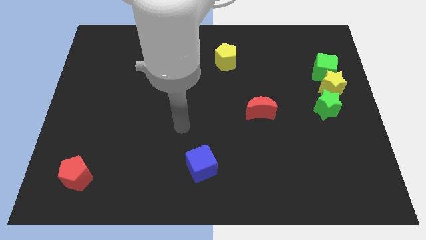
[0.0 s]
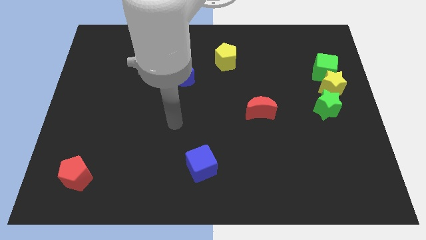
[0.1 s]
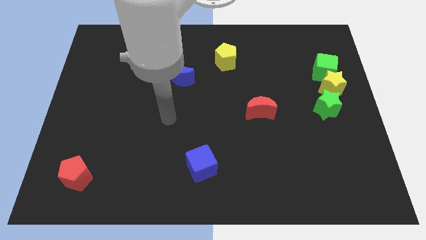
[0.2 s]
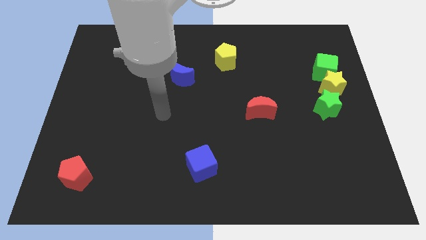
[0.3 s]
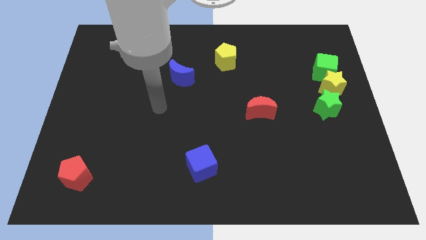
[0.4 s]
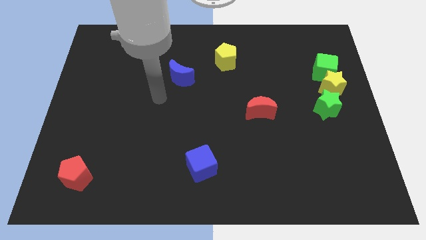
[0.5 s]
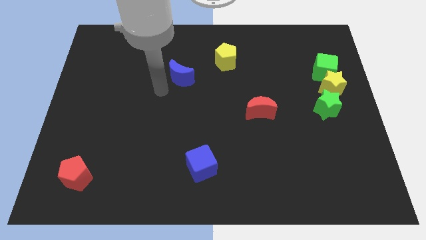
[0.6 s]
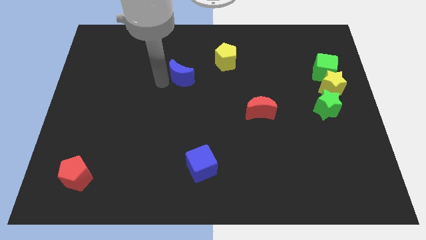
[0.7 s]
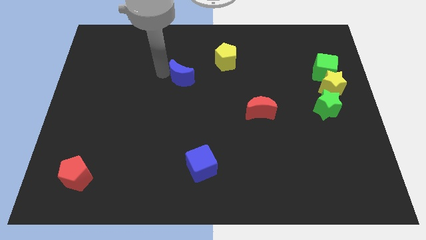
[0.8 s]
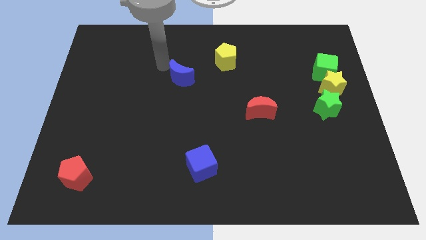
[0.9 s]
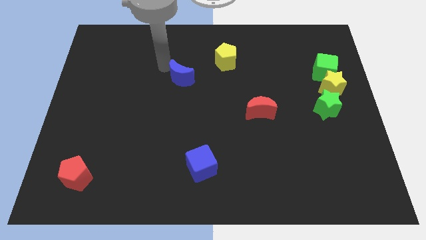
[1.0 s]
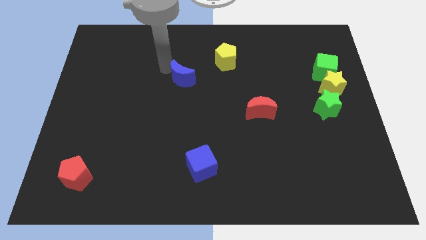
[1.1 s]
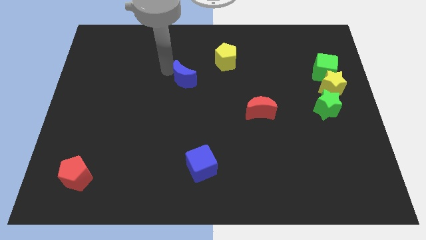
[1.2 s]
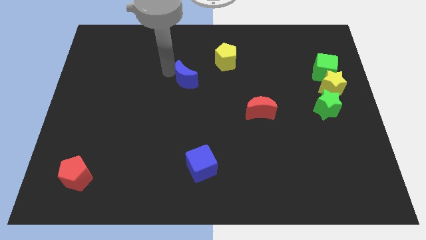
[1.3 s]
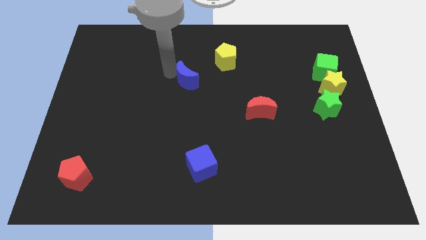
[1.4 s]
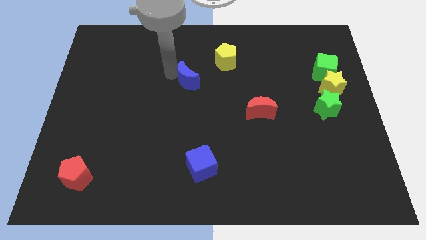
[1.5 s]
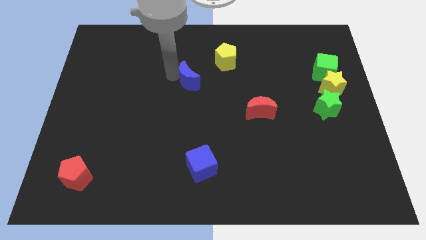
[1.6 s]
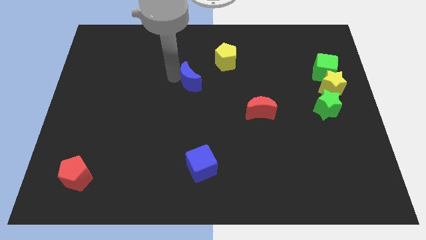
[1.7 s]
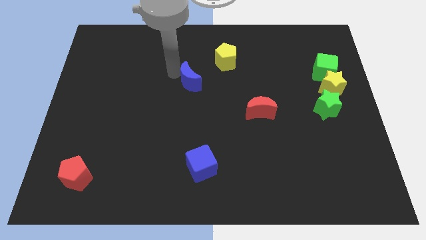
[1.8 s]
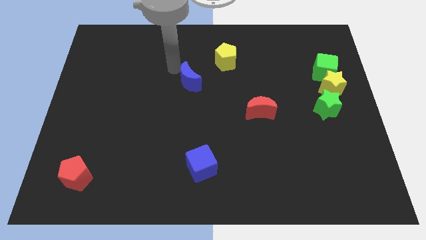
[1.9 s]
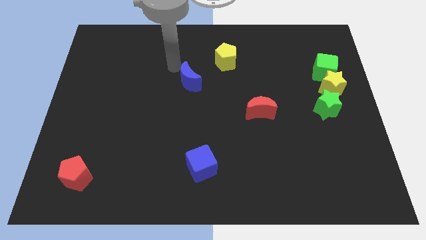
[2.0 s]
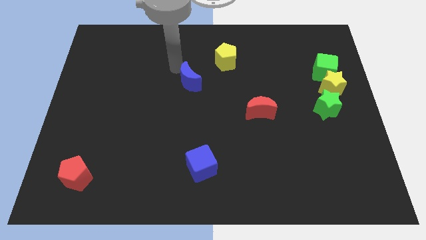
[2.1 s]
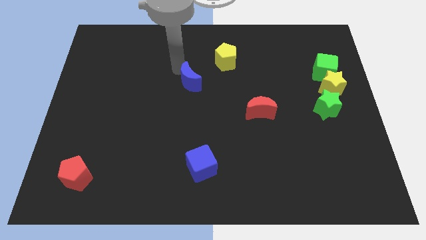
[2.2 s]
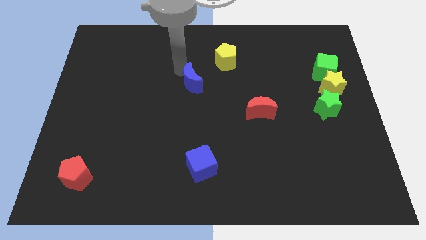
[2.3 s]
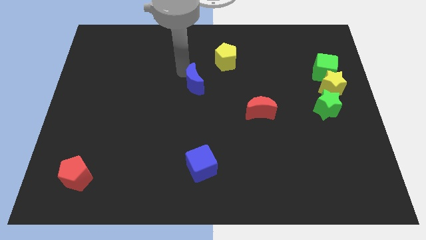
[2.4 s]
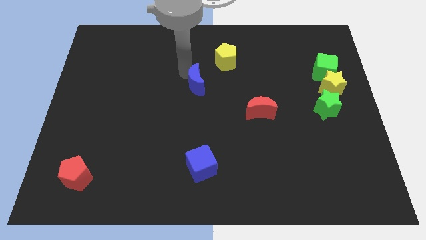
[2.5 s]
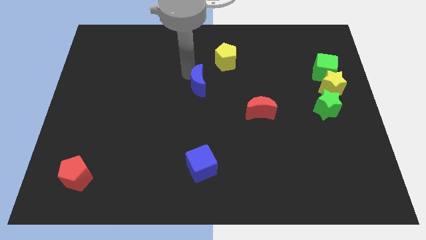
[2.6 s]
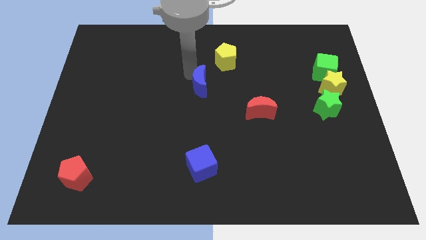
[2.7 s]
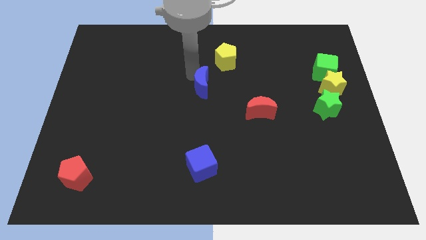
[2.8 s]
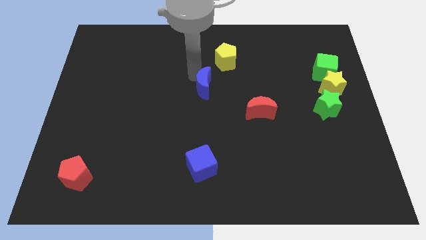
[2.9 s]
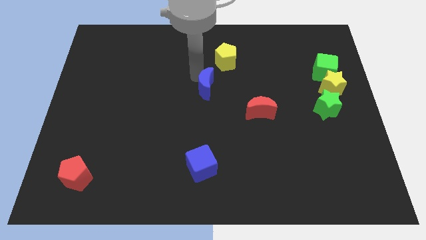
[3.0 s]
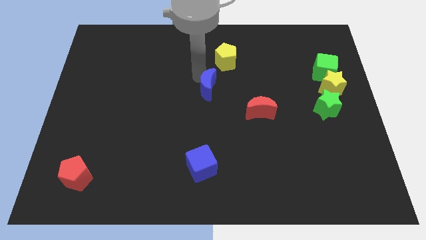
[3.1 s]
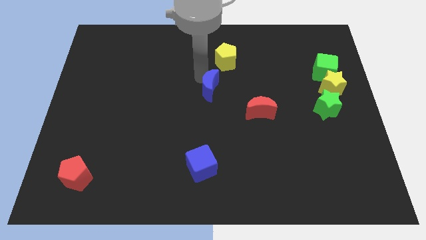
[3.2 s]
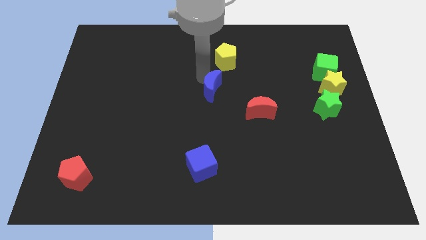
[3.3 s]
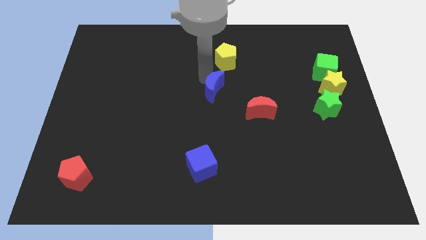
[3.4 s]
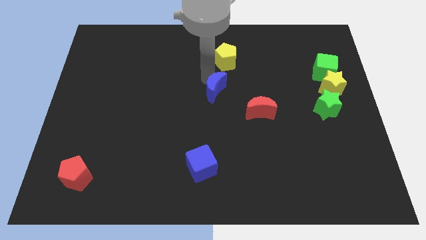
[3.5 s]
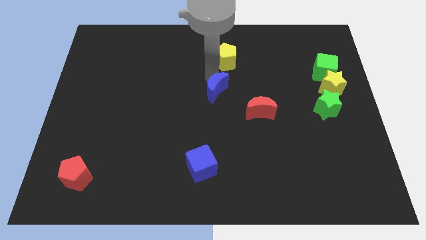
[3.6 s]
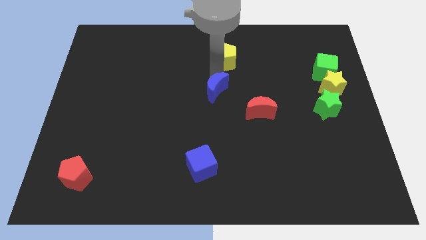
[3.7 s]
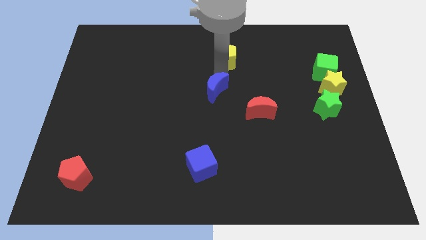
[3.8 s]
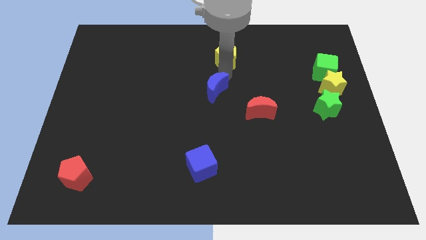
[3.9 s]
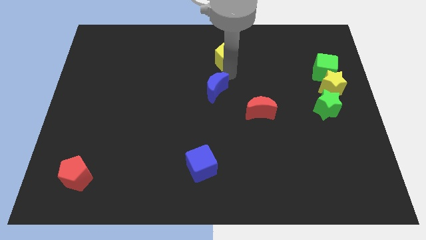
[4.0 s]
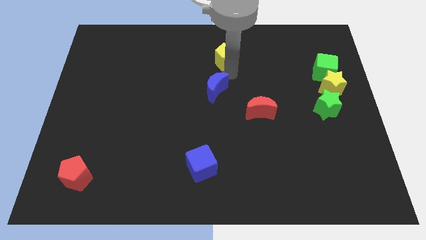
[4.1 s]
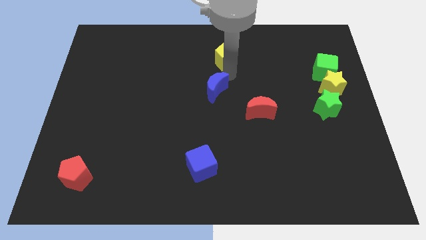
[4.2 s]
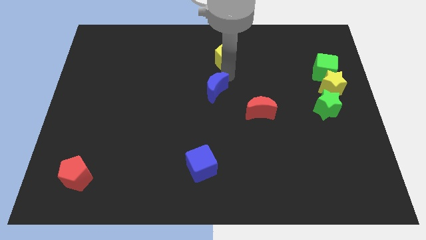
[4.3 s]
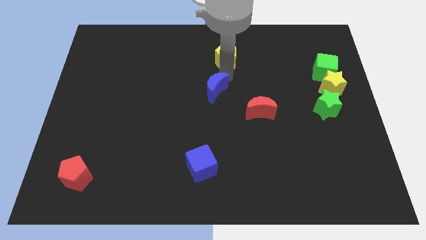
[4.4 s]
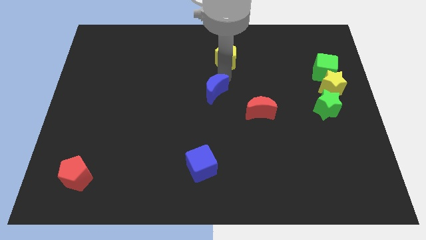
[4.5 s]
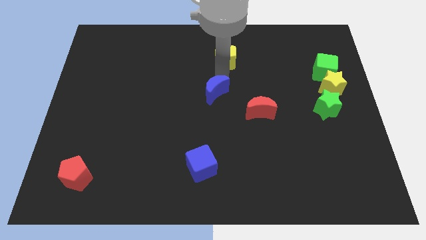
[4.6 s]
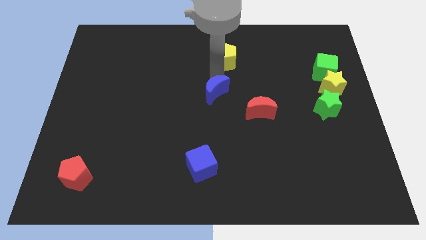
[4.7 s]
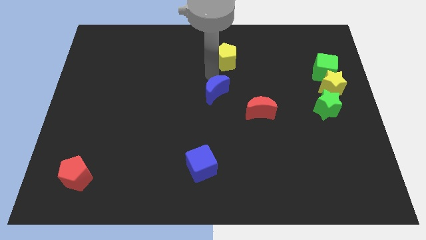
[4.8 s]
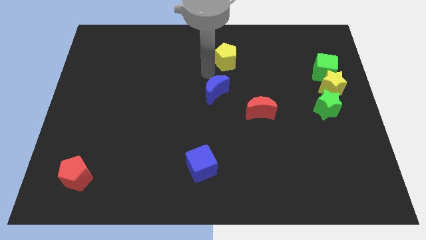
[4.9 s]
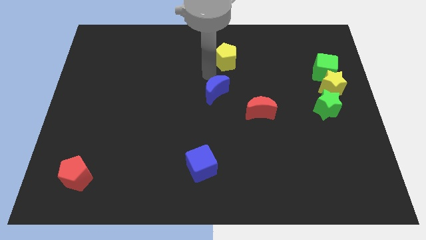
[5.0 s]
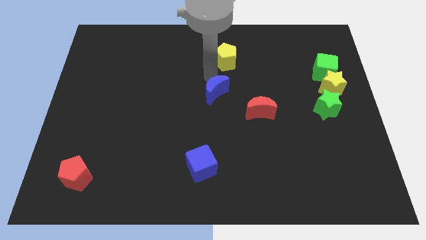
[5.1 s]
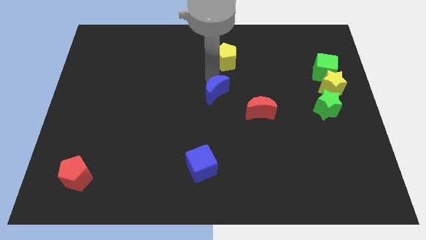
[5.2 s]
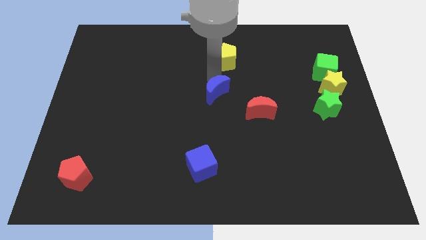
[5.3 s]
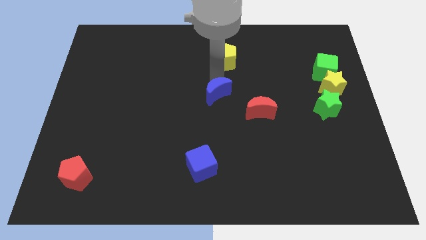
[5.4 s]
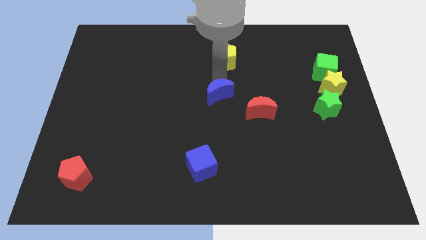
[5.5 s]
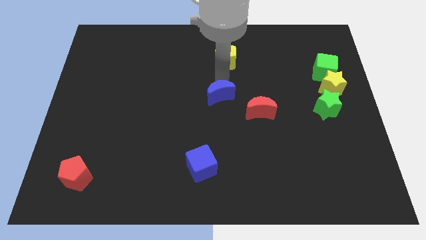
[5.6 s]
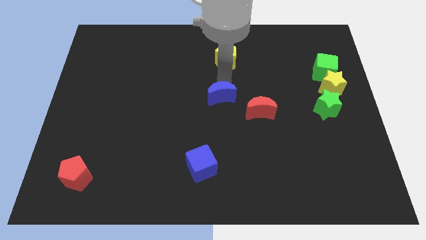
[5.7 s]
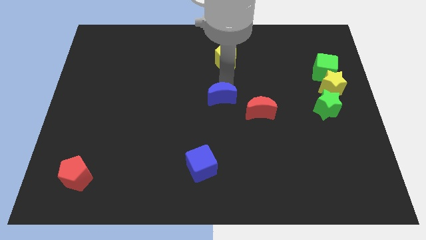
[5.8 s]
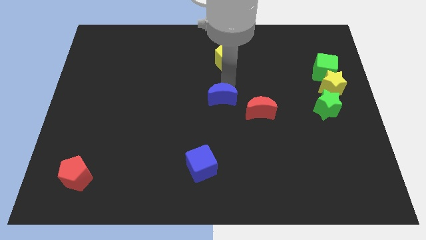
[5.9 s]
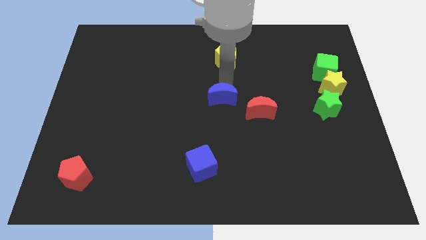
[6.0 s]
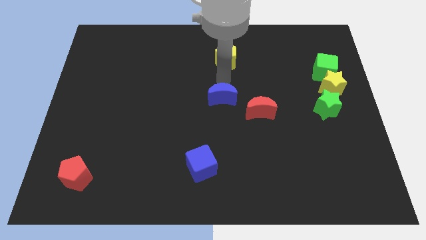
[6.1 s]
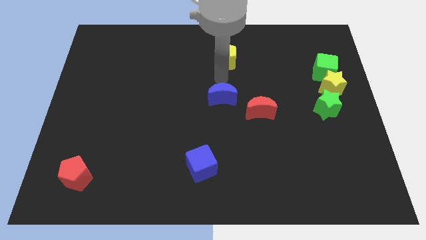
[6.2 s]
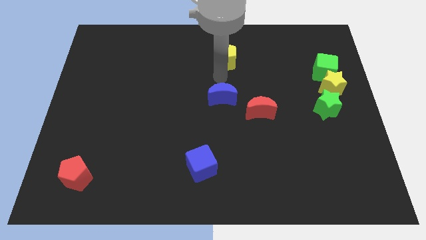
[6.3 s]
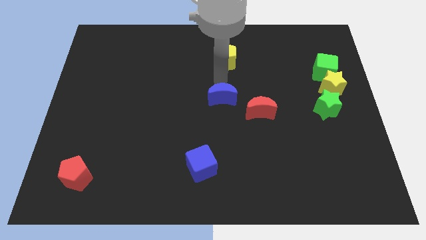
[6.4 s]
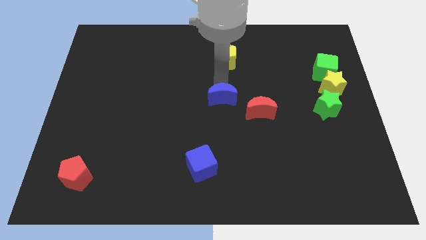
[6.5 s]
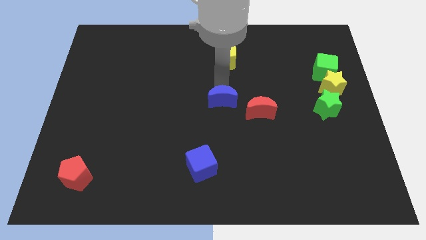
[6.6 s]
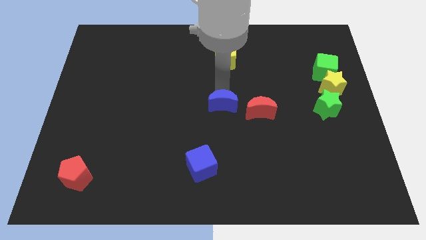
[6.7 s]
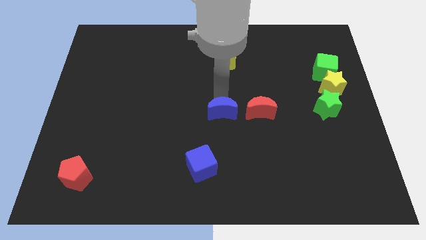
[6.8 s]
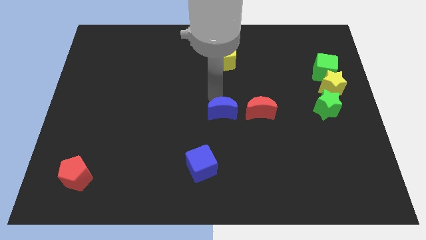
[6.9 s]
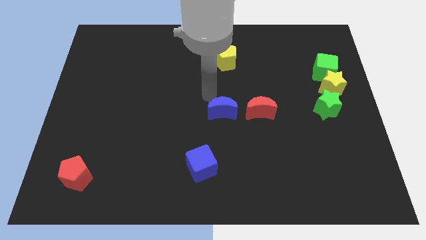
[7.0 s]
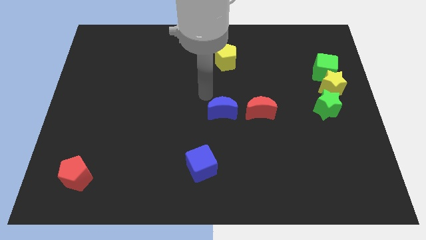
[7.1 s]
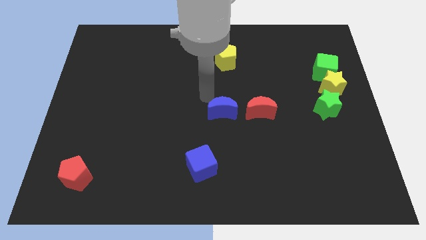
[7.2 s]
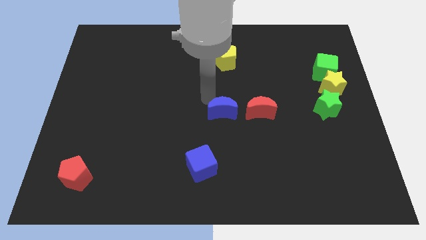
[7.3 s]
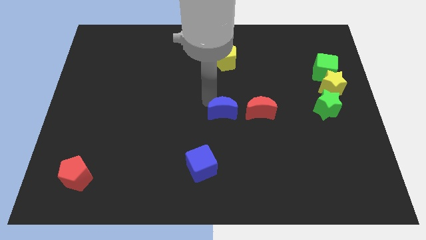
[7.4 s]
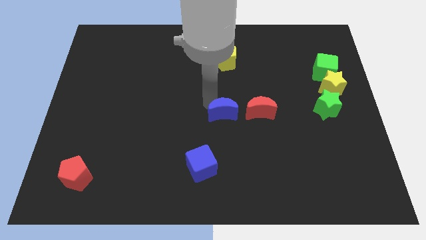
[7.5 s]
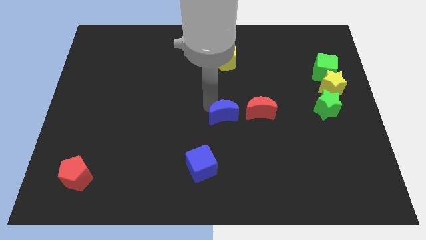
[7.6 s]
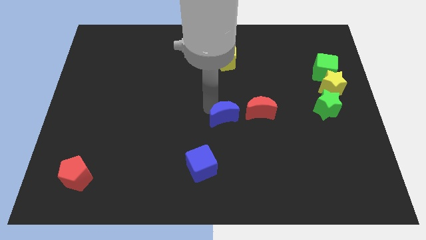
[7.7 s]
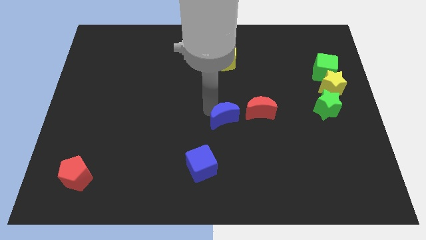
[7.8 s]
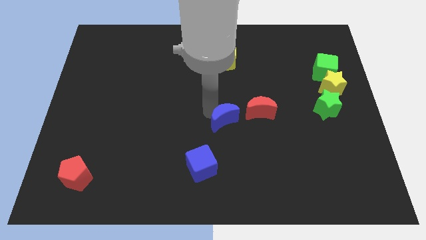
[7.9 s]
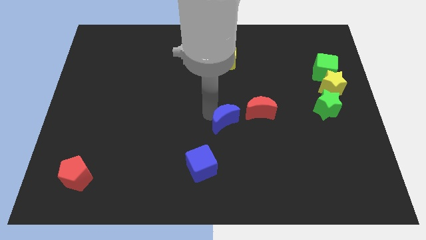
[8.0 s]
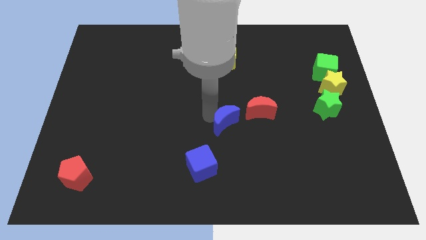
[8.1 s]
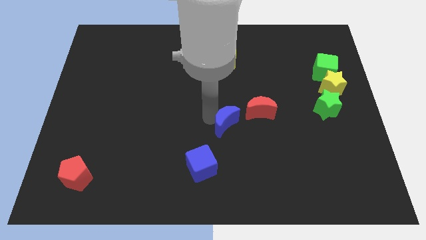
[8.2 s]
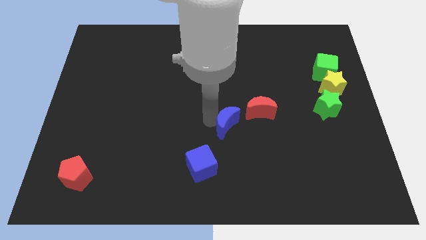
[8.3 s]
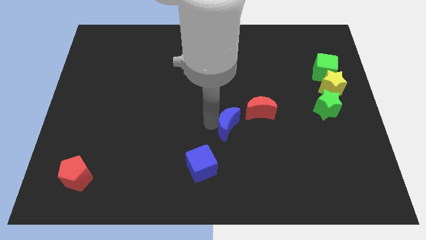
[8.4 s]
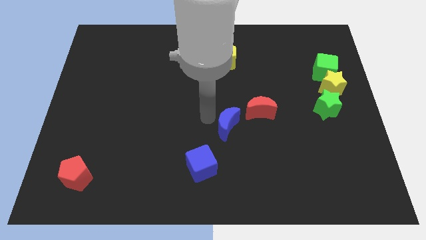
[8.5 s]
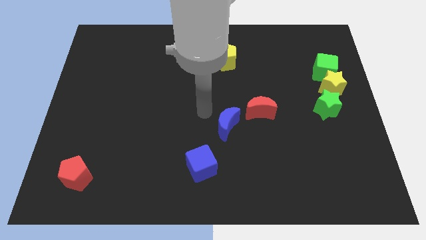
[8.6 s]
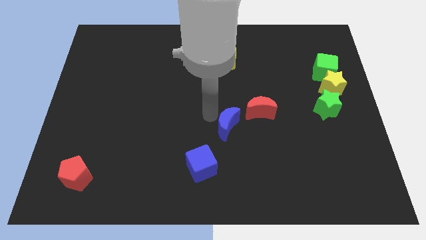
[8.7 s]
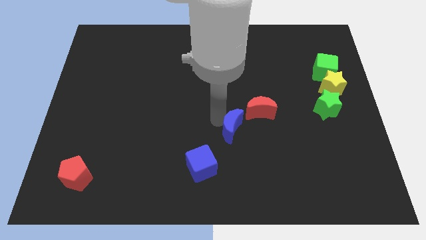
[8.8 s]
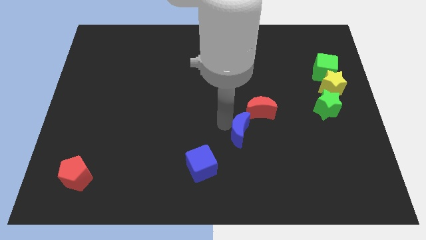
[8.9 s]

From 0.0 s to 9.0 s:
push the blue moon down and right diagonally
